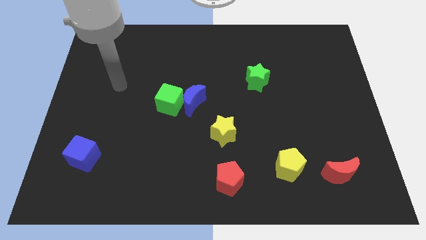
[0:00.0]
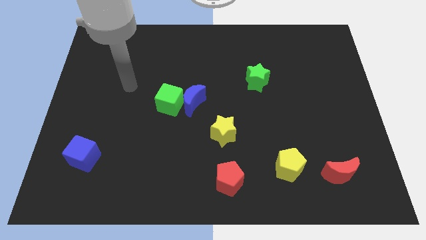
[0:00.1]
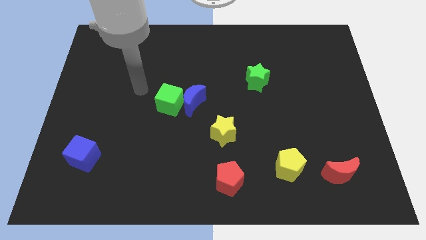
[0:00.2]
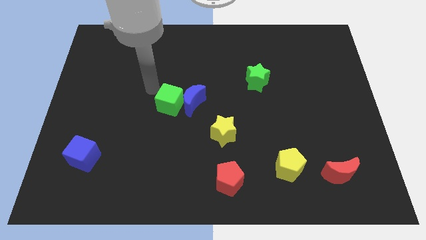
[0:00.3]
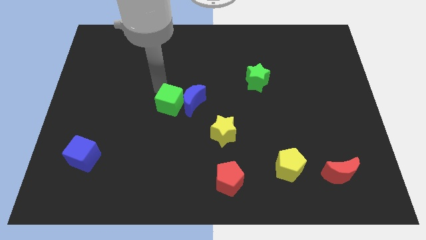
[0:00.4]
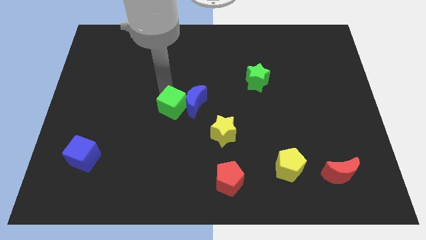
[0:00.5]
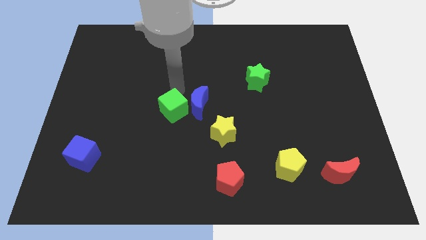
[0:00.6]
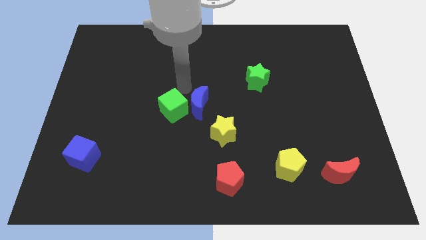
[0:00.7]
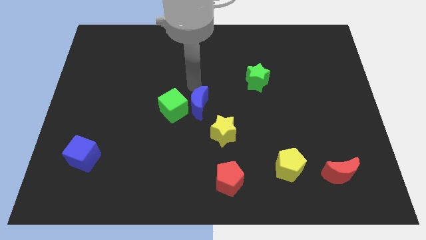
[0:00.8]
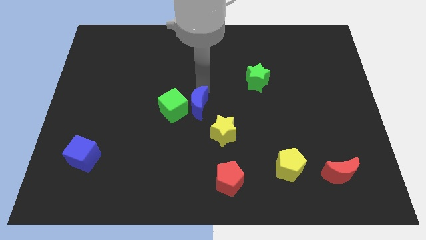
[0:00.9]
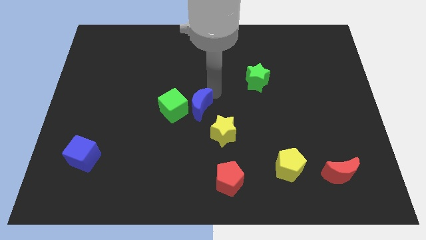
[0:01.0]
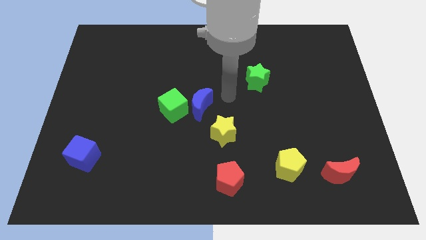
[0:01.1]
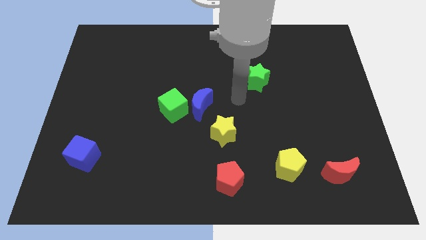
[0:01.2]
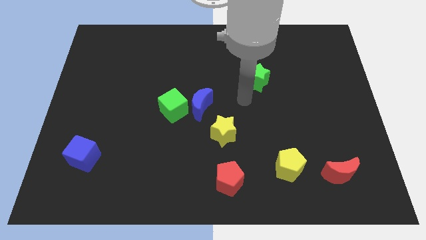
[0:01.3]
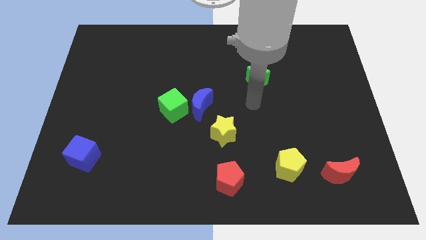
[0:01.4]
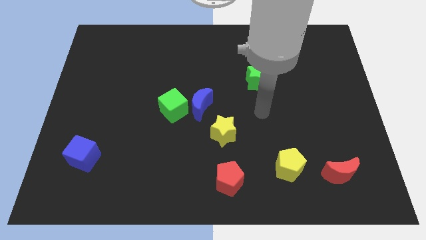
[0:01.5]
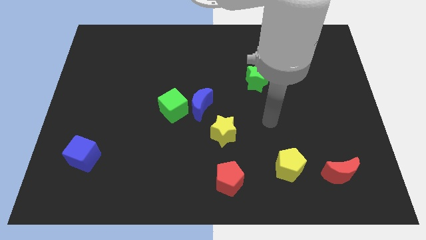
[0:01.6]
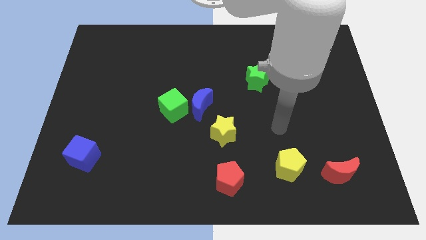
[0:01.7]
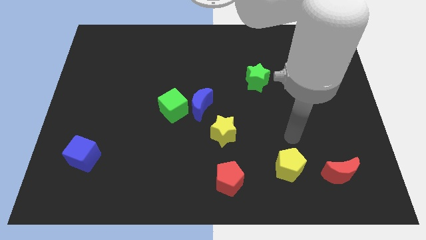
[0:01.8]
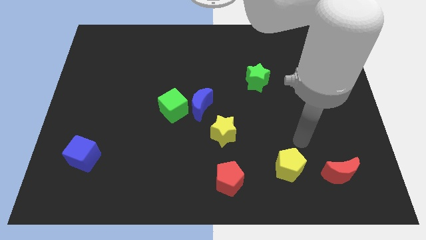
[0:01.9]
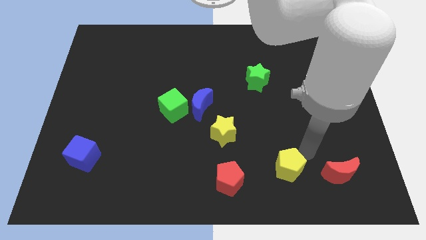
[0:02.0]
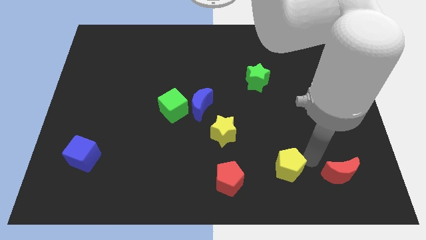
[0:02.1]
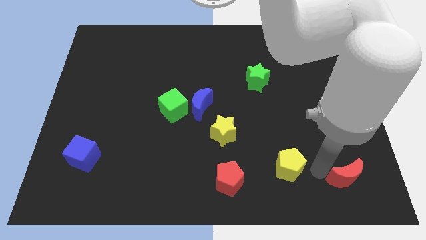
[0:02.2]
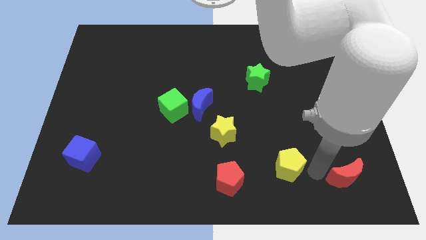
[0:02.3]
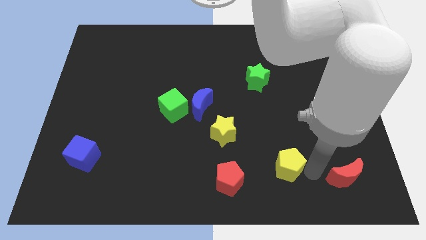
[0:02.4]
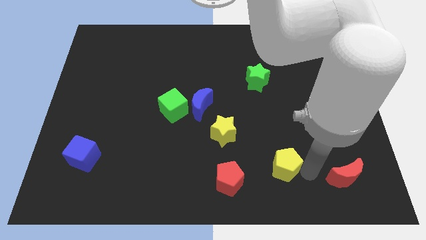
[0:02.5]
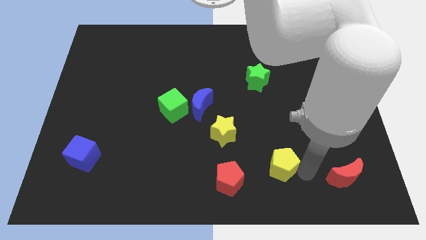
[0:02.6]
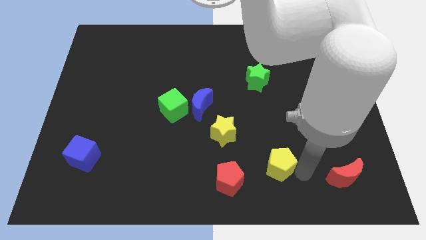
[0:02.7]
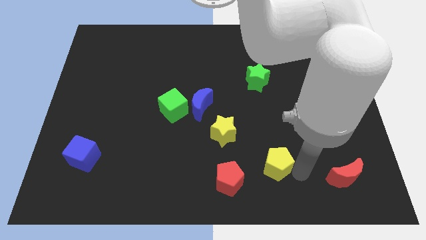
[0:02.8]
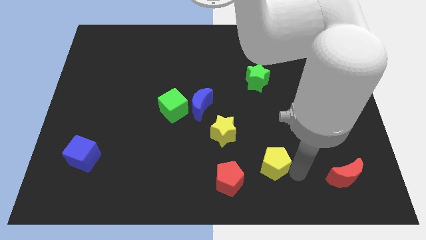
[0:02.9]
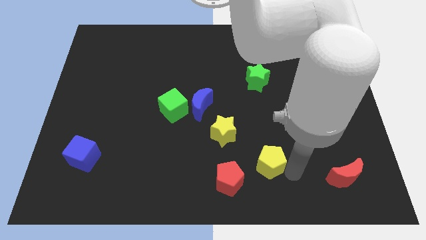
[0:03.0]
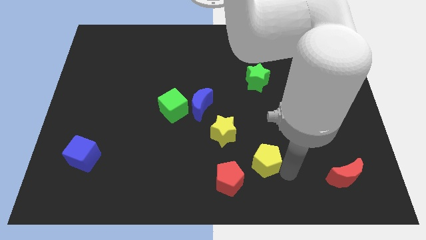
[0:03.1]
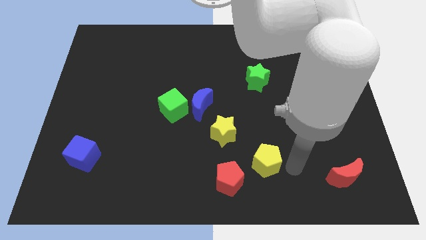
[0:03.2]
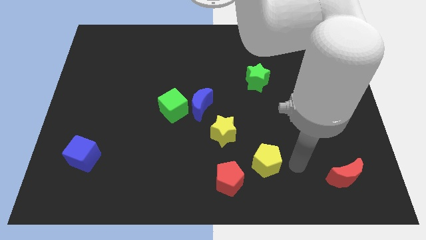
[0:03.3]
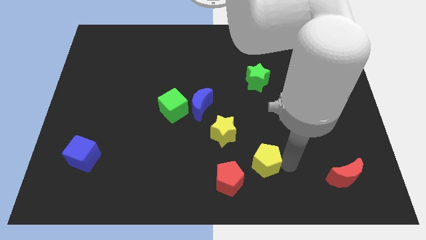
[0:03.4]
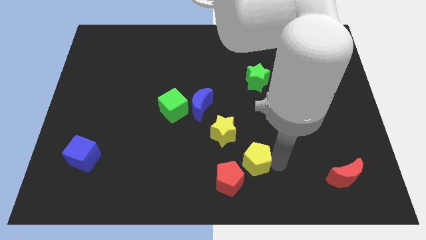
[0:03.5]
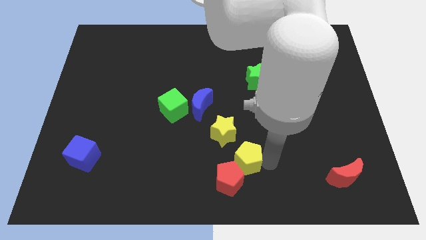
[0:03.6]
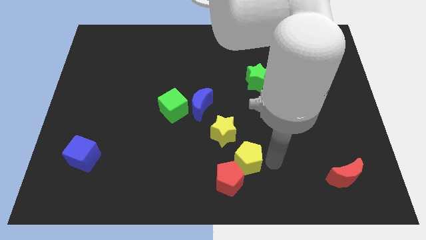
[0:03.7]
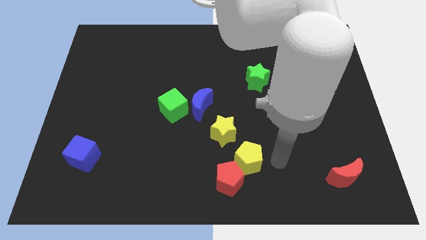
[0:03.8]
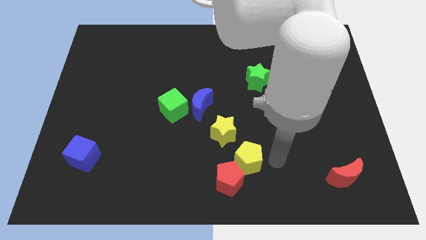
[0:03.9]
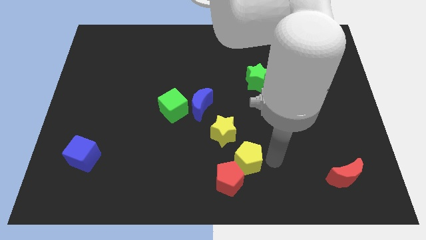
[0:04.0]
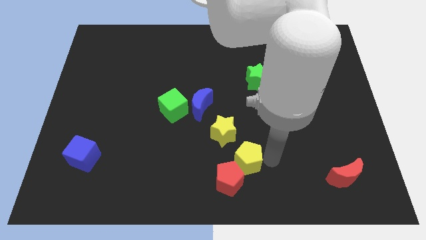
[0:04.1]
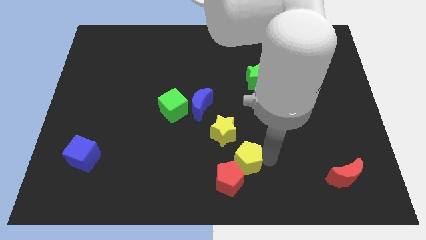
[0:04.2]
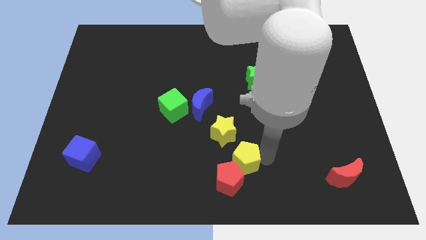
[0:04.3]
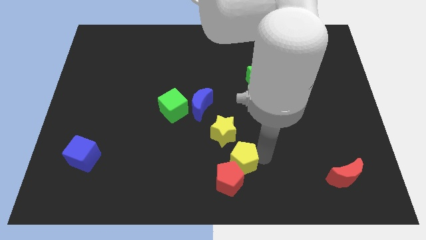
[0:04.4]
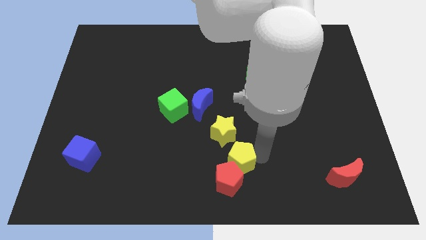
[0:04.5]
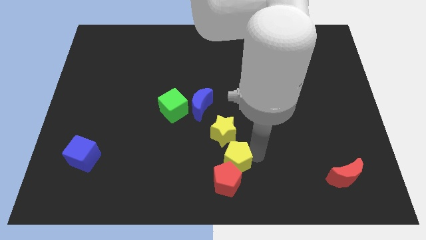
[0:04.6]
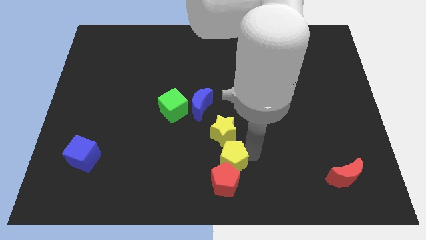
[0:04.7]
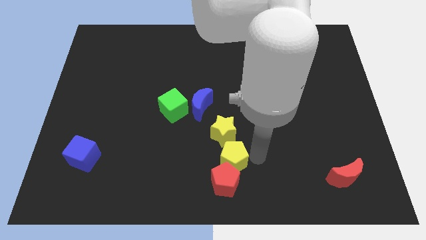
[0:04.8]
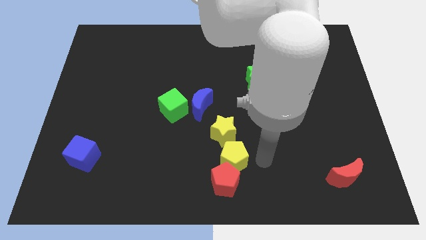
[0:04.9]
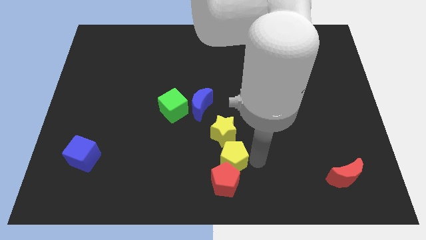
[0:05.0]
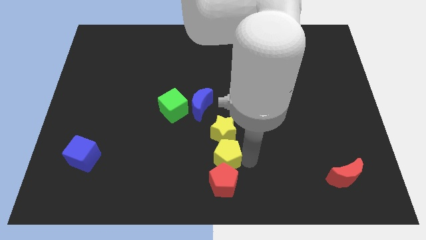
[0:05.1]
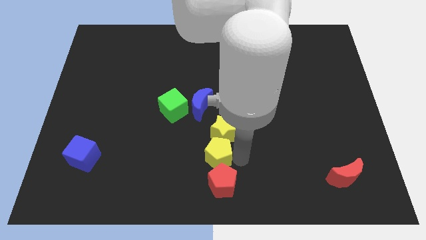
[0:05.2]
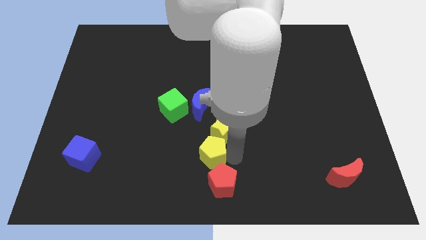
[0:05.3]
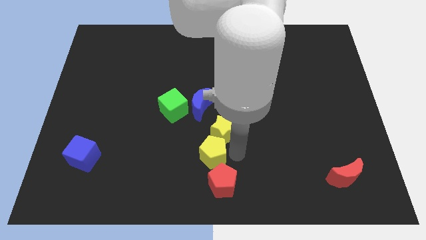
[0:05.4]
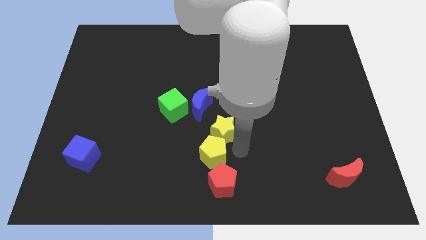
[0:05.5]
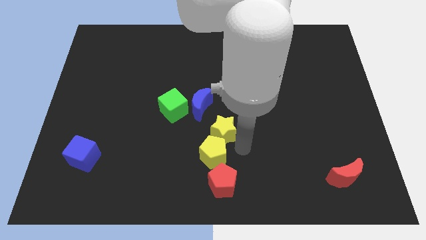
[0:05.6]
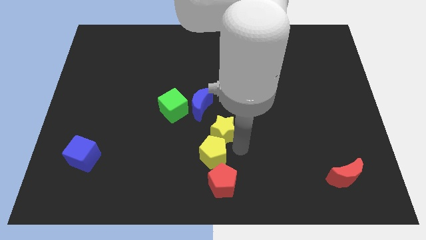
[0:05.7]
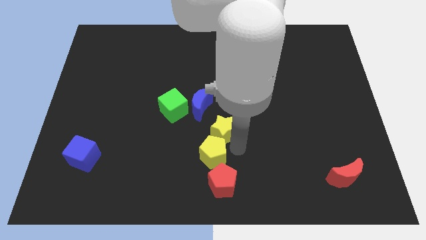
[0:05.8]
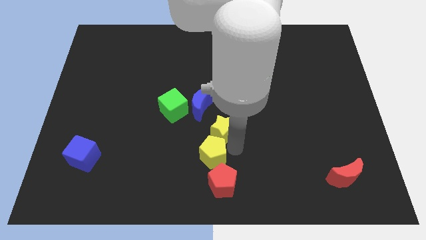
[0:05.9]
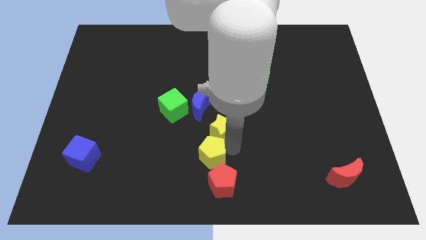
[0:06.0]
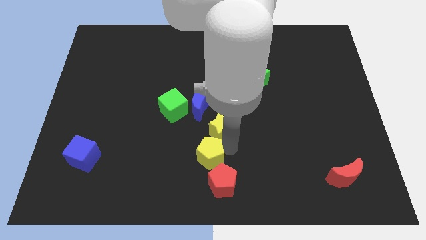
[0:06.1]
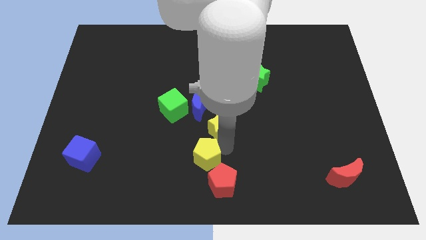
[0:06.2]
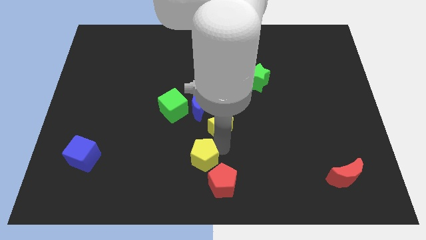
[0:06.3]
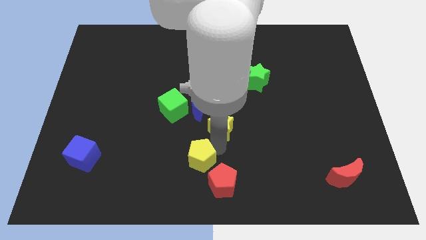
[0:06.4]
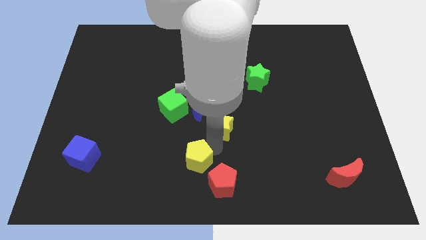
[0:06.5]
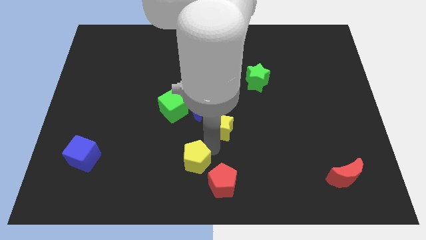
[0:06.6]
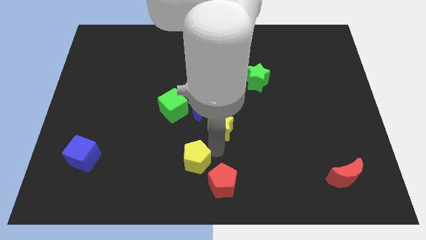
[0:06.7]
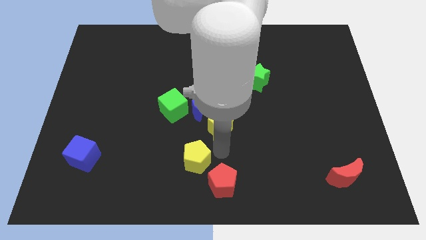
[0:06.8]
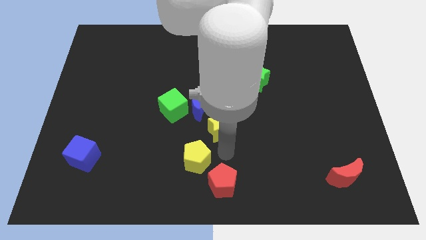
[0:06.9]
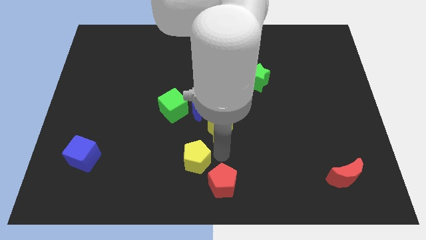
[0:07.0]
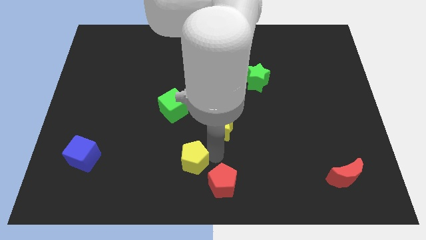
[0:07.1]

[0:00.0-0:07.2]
move the yellow pentagon to the left

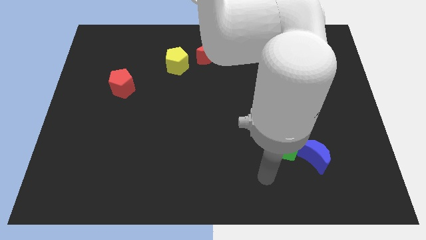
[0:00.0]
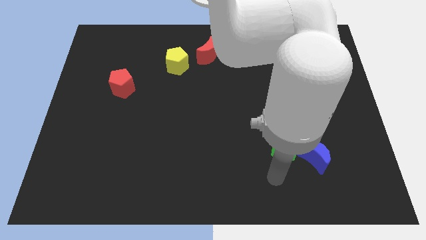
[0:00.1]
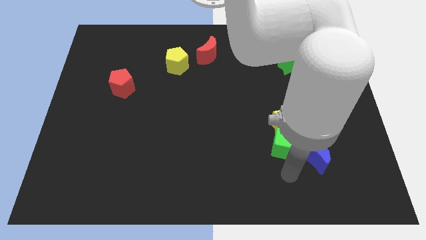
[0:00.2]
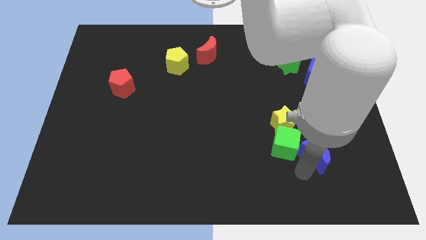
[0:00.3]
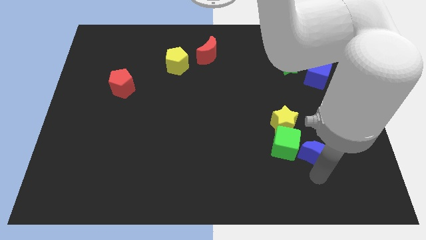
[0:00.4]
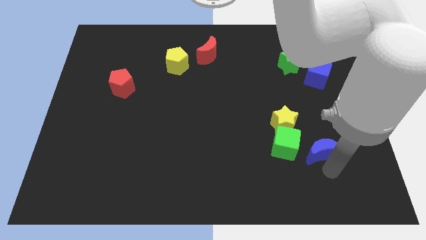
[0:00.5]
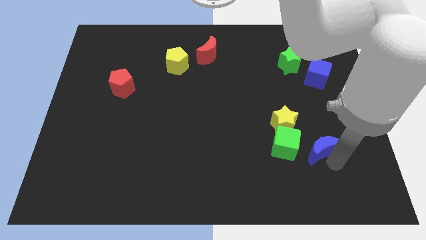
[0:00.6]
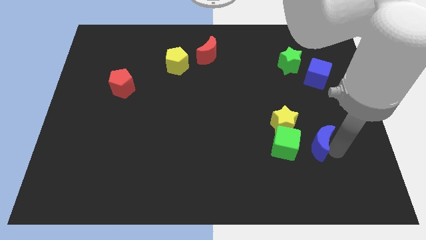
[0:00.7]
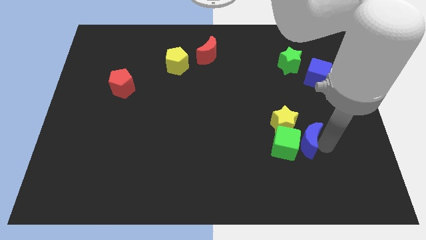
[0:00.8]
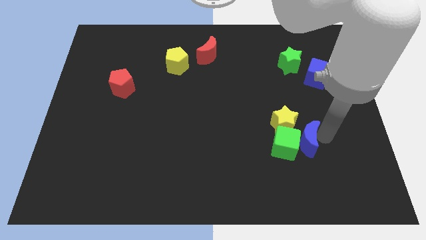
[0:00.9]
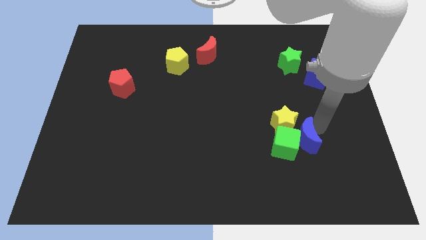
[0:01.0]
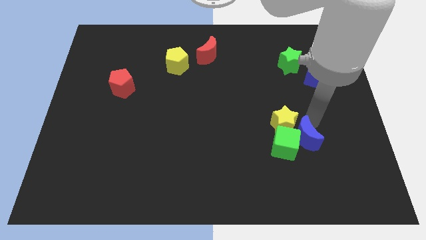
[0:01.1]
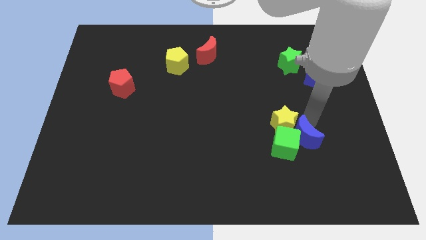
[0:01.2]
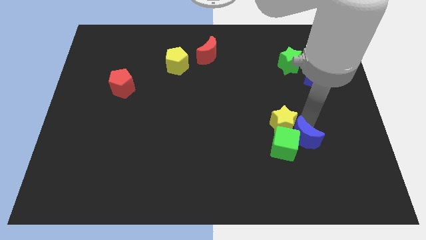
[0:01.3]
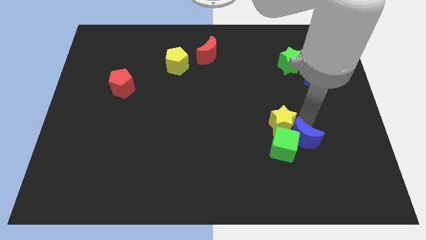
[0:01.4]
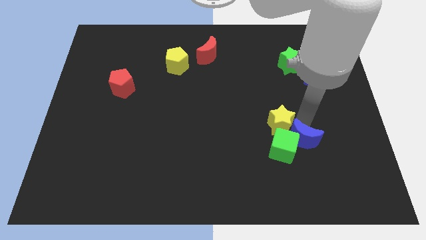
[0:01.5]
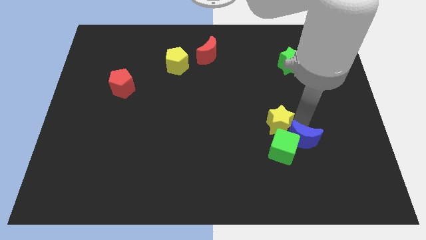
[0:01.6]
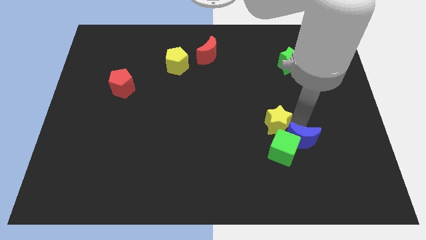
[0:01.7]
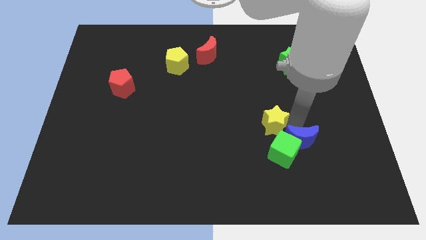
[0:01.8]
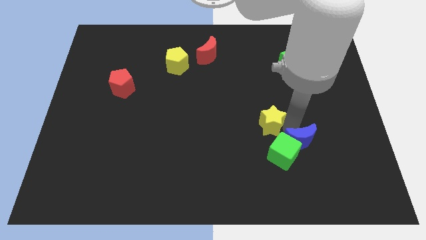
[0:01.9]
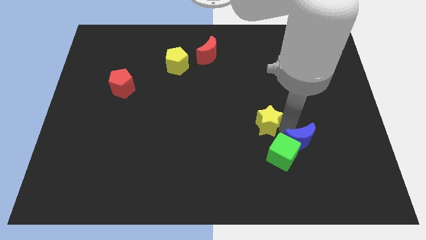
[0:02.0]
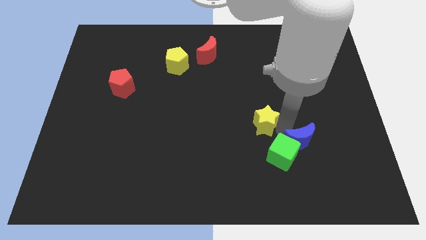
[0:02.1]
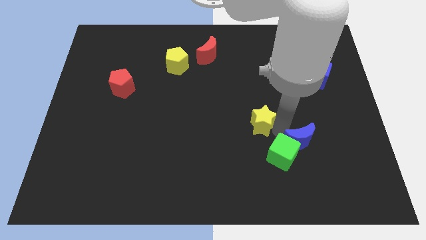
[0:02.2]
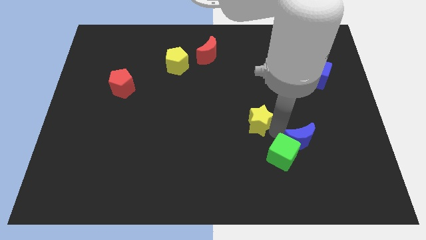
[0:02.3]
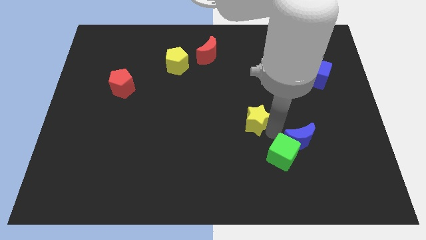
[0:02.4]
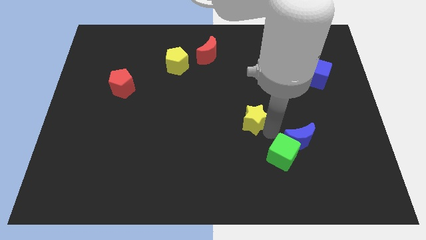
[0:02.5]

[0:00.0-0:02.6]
push the yellow star left a little
